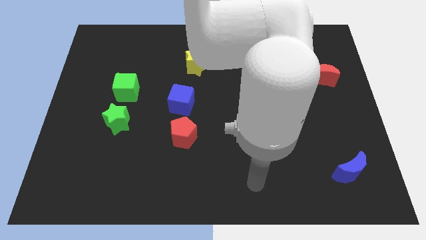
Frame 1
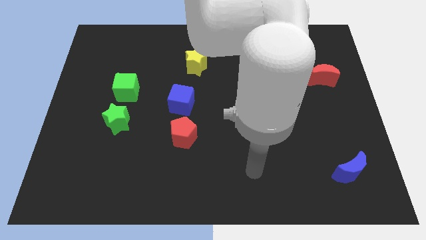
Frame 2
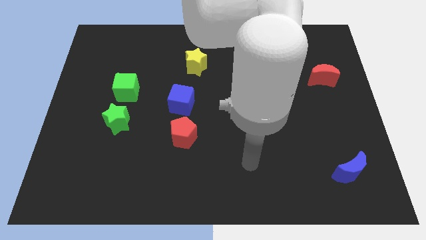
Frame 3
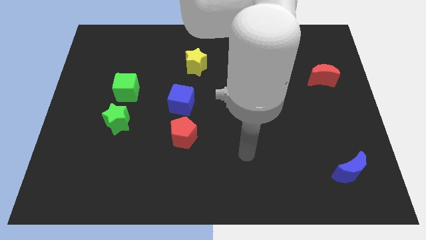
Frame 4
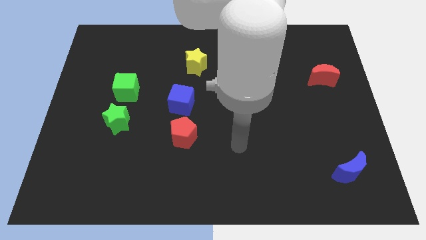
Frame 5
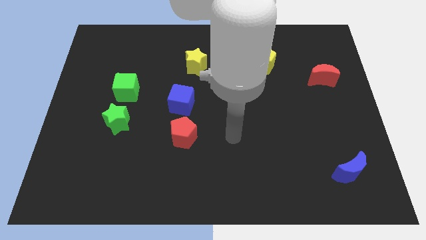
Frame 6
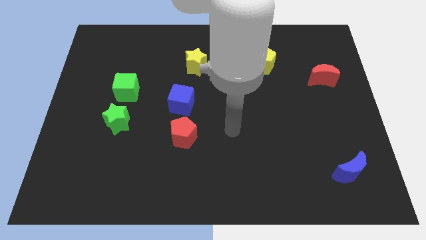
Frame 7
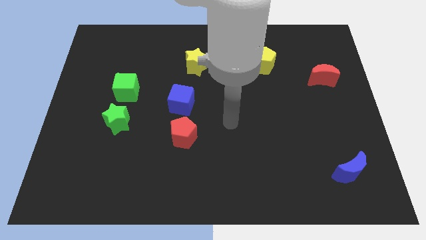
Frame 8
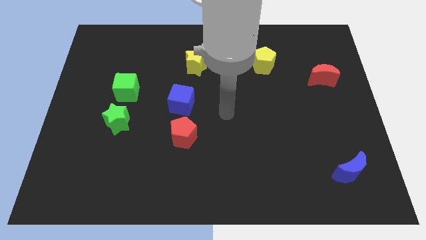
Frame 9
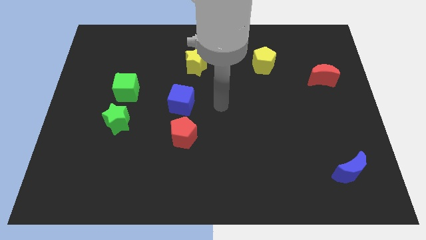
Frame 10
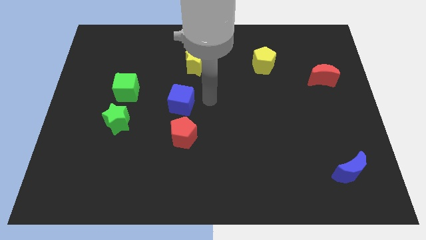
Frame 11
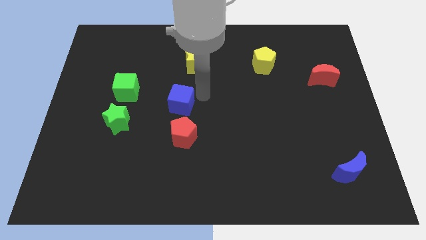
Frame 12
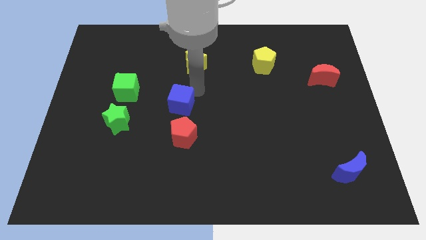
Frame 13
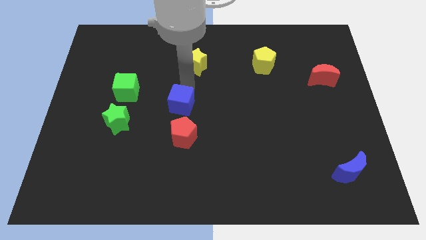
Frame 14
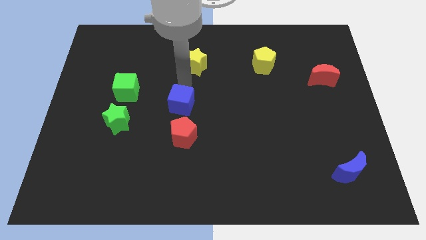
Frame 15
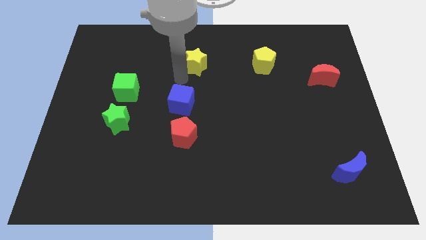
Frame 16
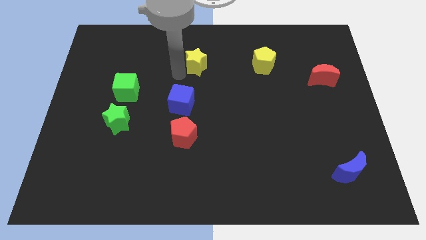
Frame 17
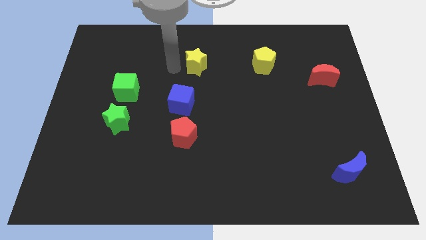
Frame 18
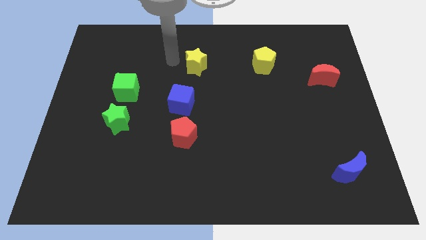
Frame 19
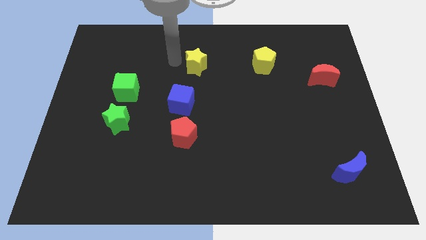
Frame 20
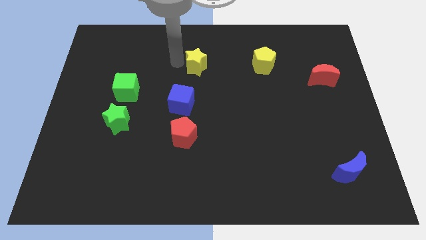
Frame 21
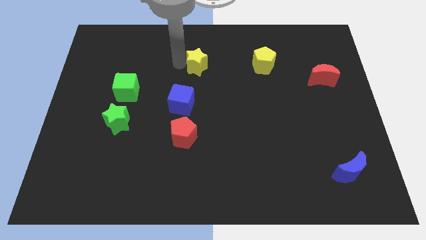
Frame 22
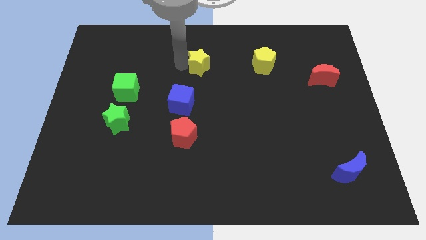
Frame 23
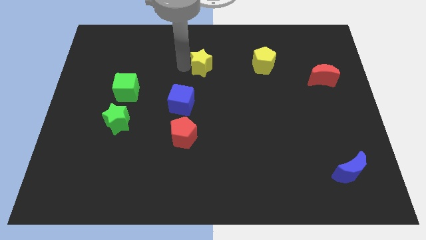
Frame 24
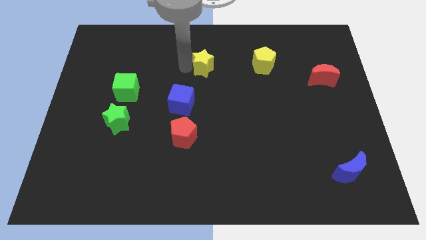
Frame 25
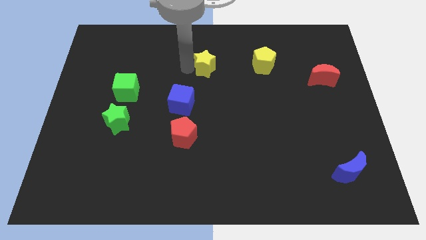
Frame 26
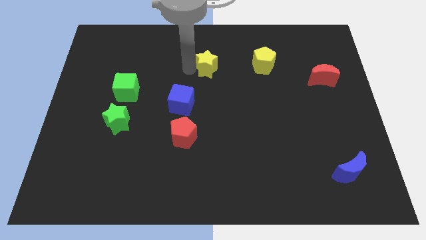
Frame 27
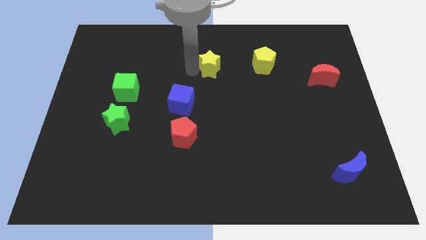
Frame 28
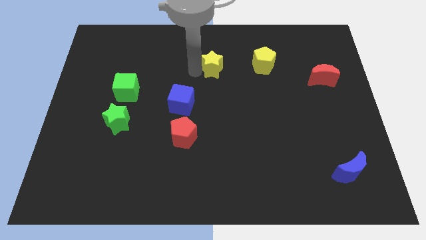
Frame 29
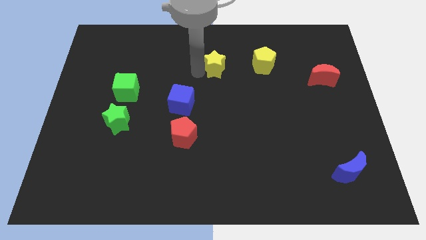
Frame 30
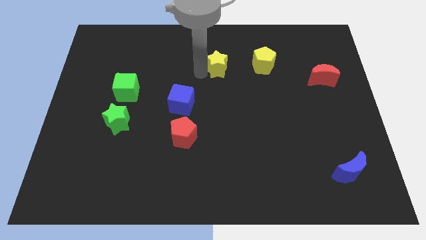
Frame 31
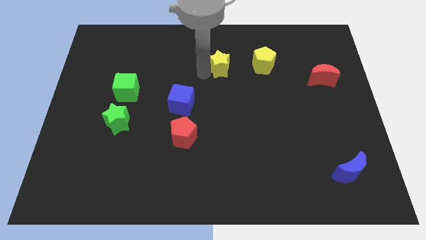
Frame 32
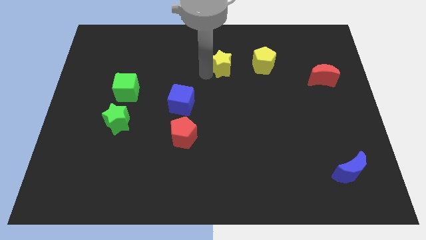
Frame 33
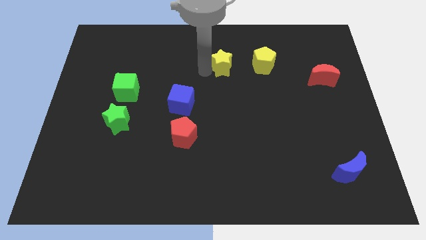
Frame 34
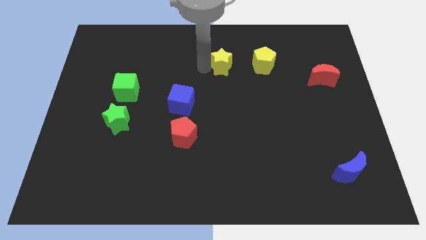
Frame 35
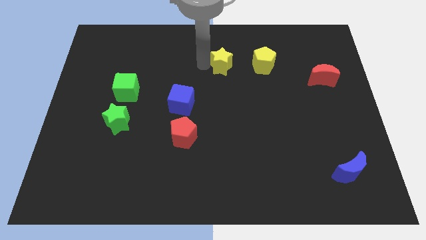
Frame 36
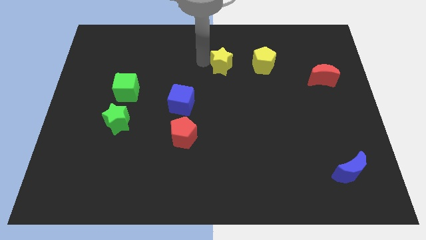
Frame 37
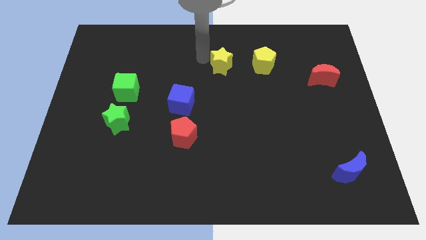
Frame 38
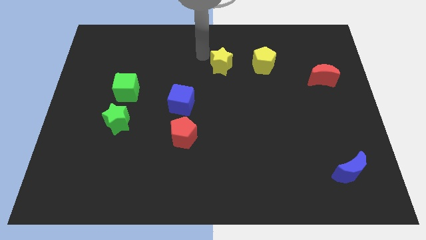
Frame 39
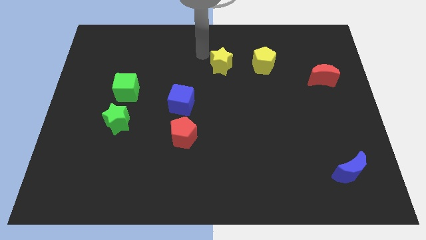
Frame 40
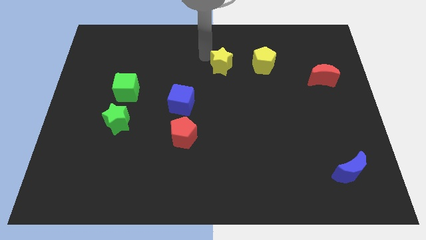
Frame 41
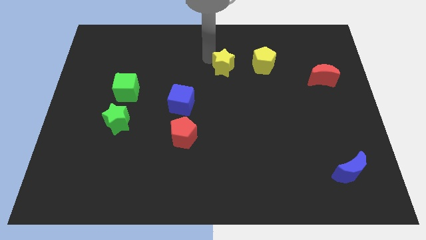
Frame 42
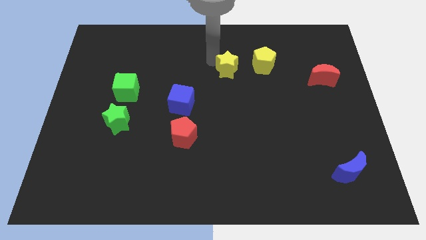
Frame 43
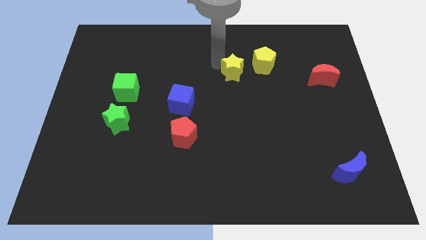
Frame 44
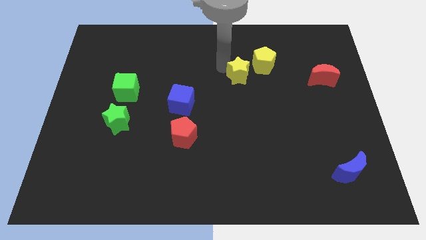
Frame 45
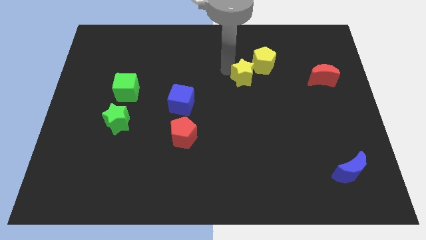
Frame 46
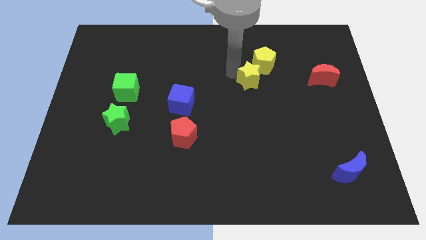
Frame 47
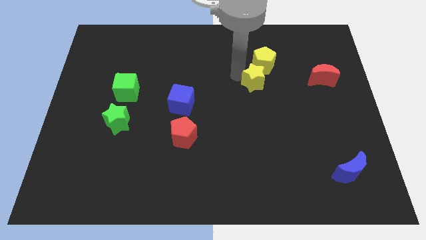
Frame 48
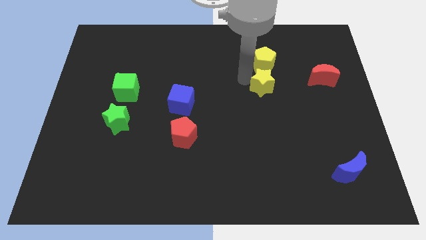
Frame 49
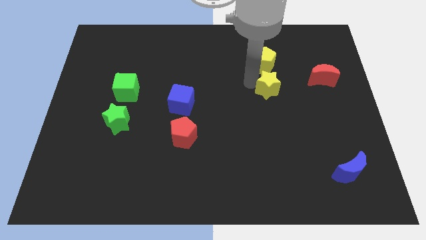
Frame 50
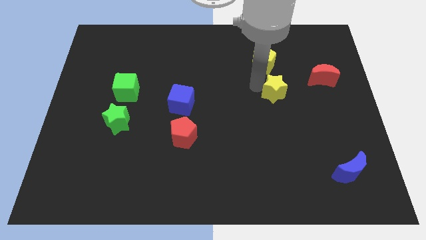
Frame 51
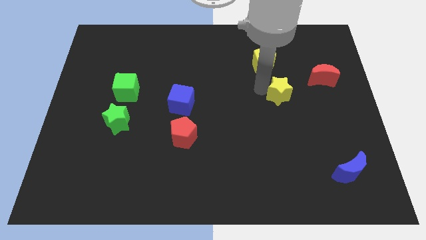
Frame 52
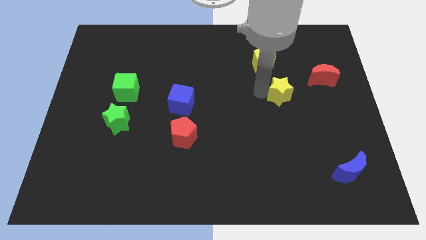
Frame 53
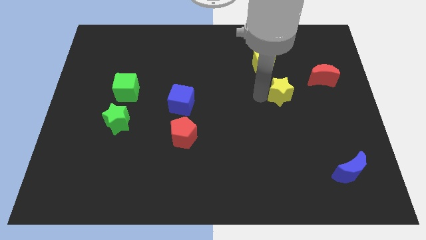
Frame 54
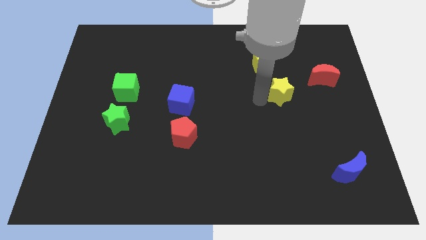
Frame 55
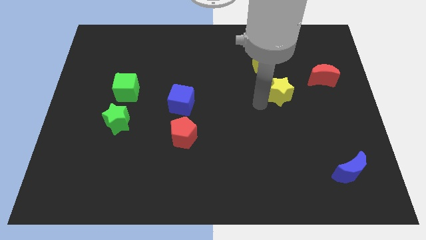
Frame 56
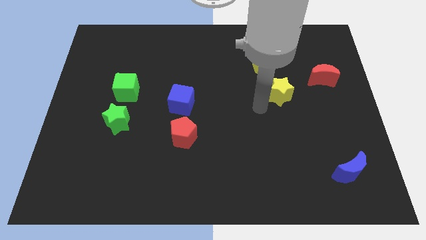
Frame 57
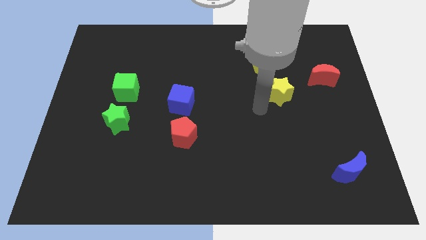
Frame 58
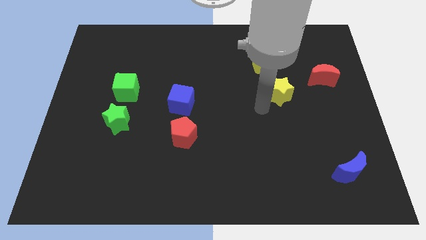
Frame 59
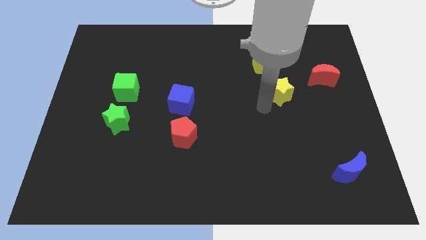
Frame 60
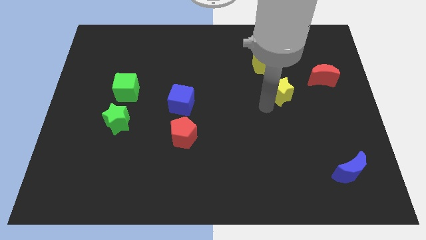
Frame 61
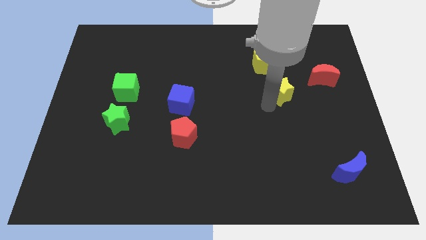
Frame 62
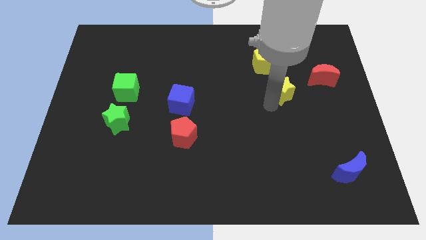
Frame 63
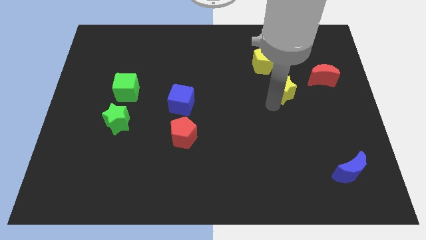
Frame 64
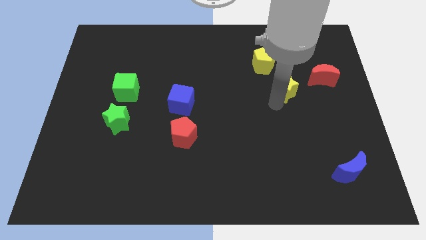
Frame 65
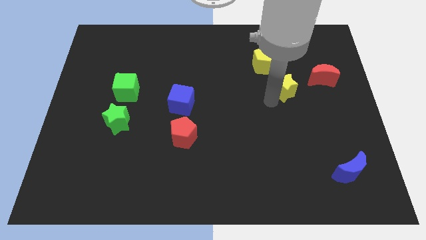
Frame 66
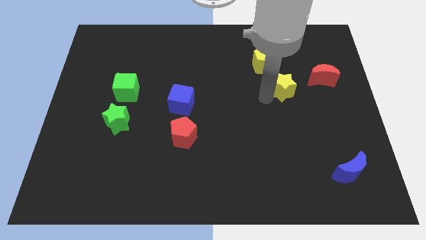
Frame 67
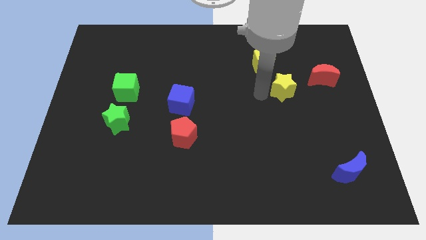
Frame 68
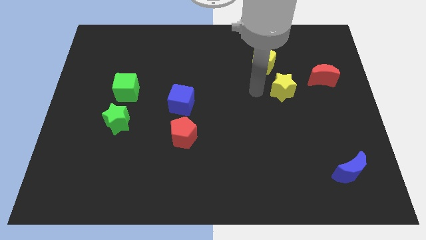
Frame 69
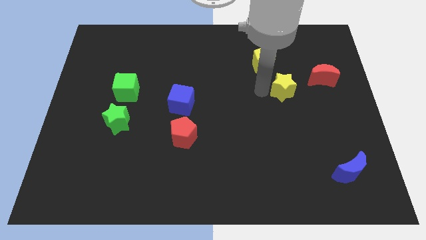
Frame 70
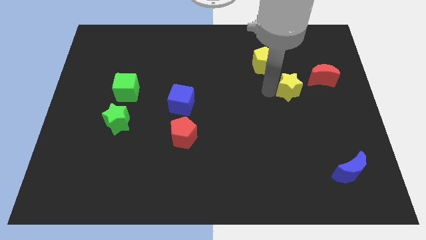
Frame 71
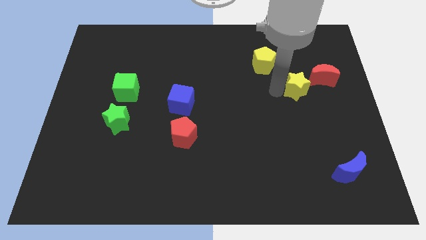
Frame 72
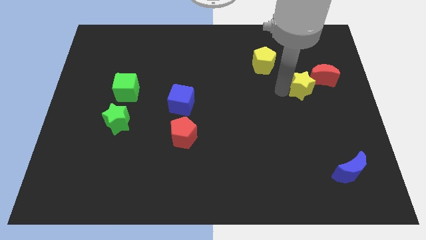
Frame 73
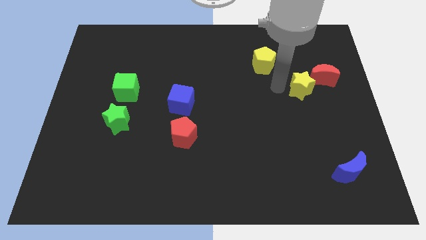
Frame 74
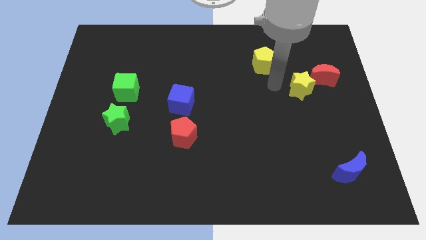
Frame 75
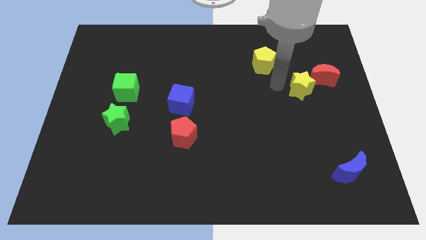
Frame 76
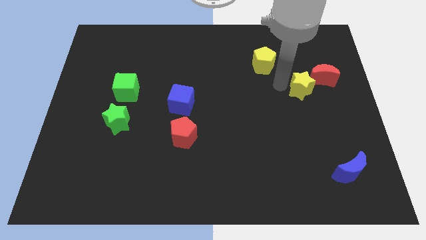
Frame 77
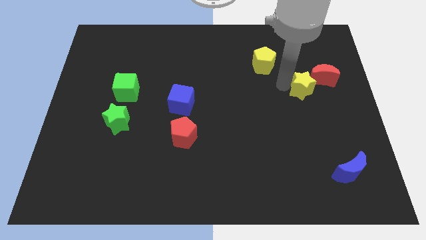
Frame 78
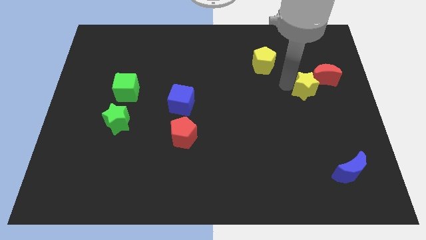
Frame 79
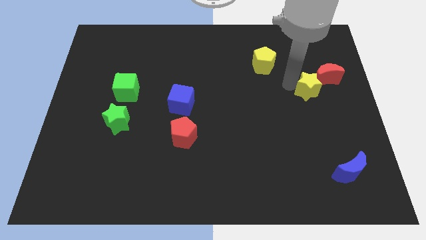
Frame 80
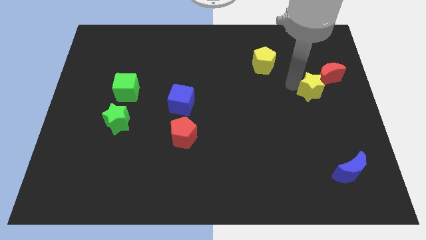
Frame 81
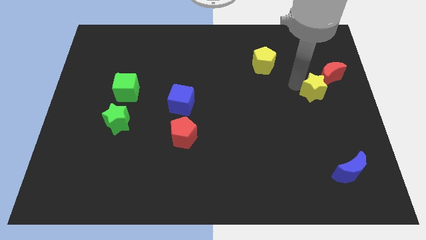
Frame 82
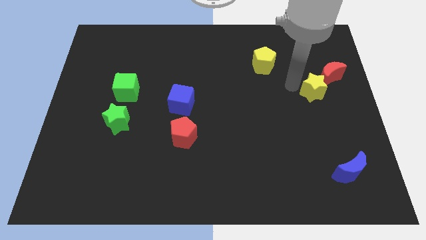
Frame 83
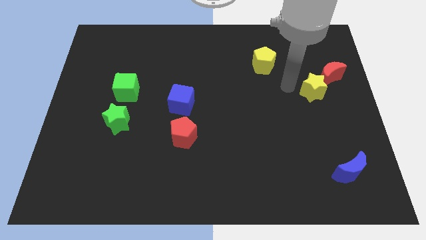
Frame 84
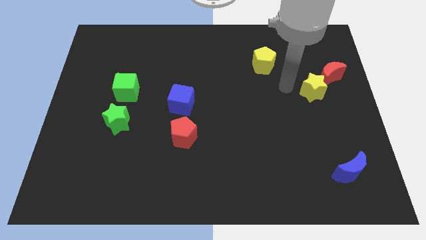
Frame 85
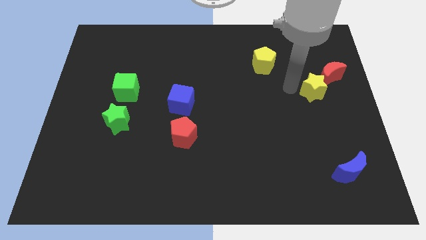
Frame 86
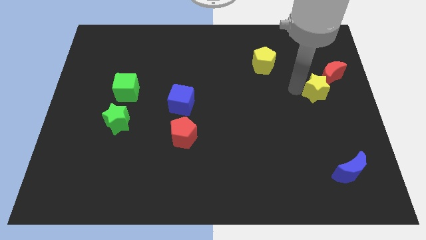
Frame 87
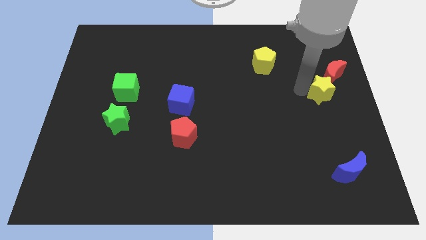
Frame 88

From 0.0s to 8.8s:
push the yellow star to the right side of the board
